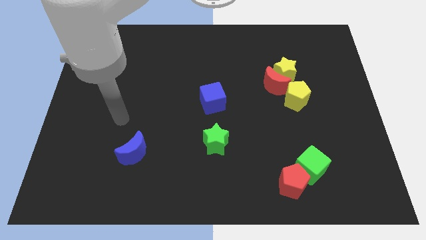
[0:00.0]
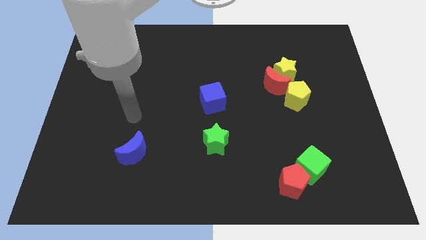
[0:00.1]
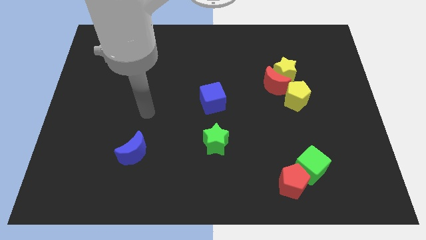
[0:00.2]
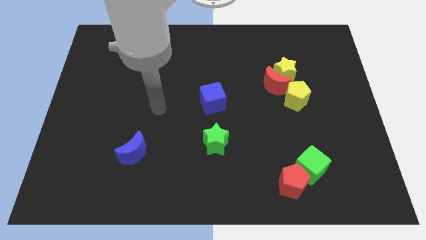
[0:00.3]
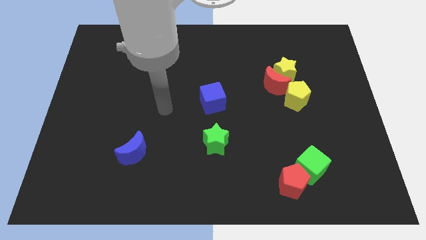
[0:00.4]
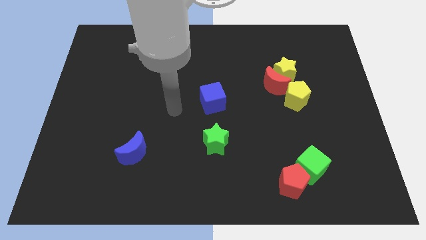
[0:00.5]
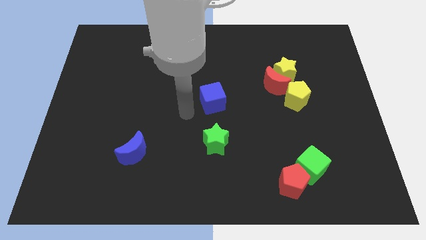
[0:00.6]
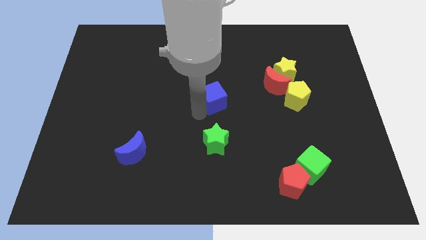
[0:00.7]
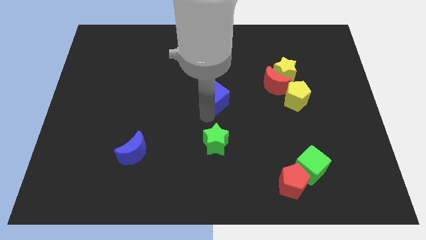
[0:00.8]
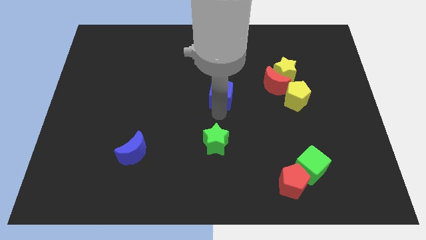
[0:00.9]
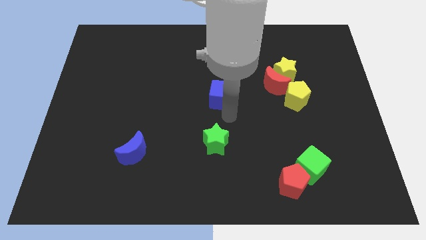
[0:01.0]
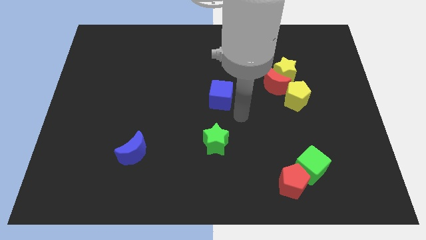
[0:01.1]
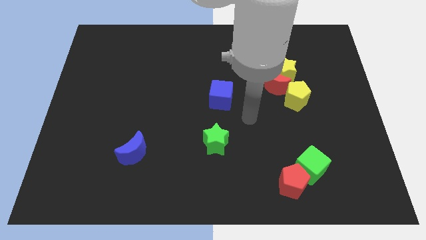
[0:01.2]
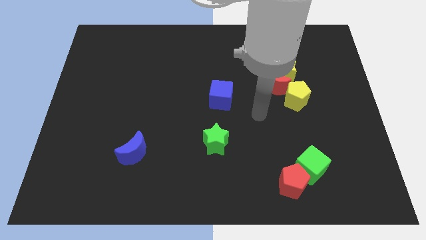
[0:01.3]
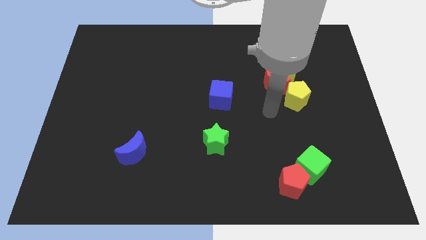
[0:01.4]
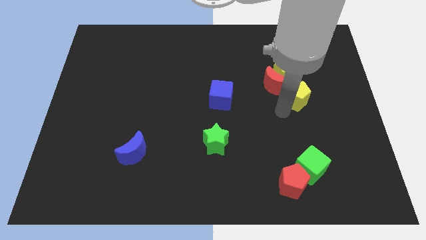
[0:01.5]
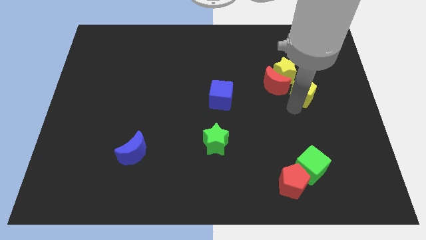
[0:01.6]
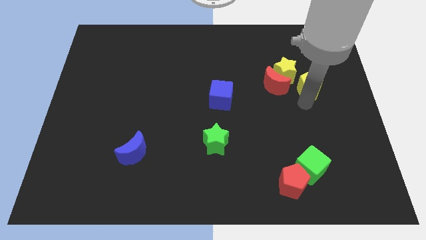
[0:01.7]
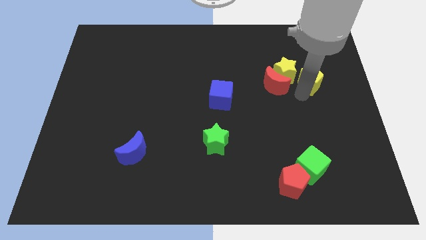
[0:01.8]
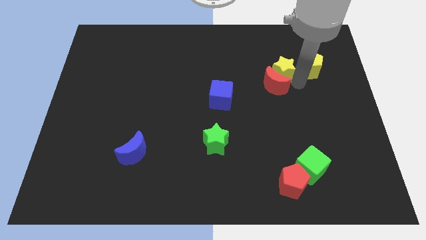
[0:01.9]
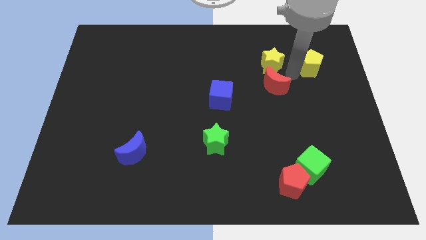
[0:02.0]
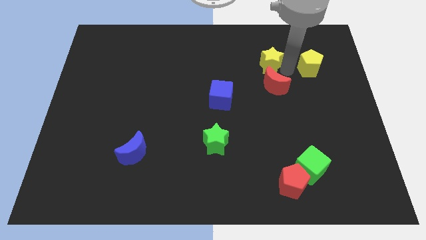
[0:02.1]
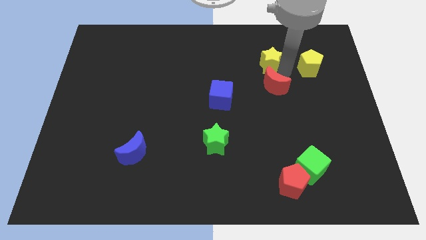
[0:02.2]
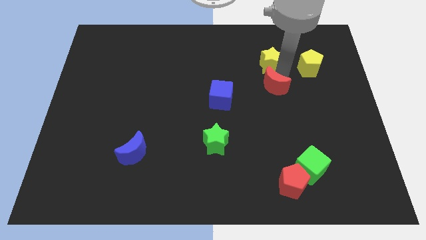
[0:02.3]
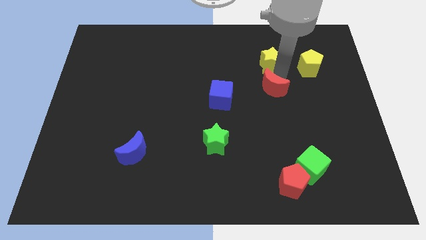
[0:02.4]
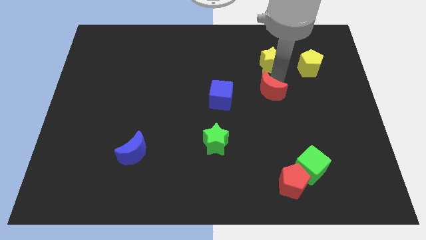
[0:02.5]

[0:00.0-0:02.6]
move the red moon away from the yellow star and yellow pentagon

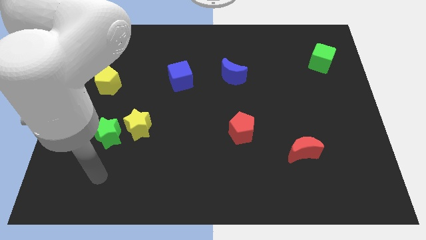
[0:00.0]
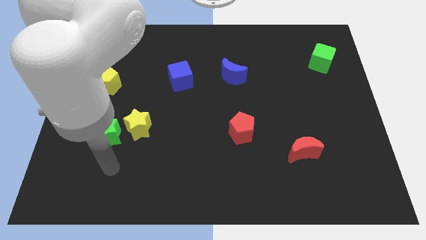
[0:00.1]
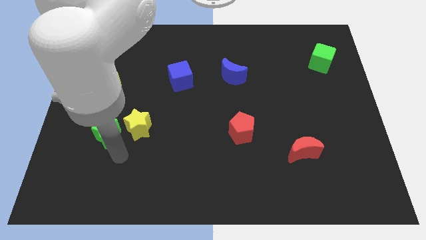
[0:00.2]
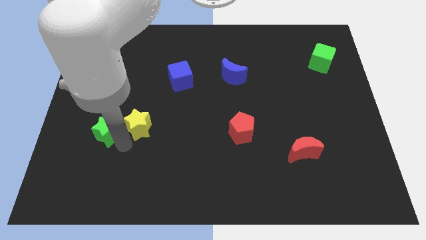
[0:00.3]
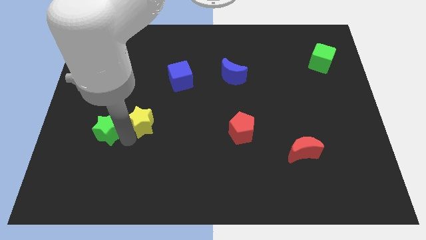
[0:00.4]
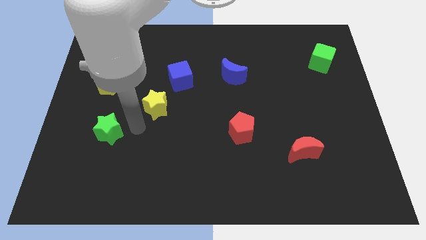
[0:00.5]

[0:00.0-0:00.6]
separate the green star from the yellow star

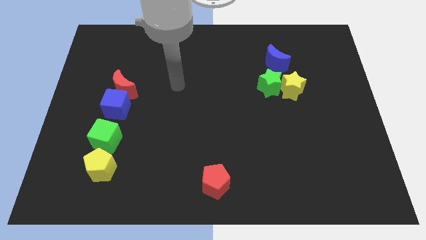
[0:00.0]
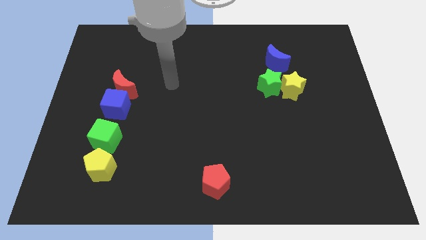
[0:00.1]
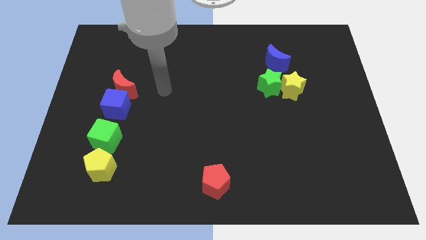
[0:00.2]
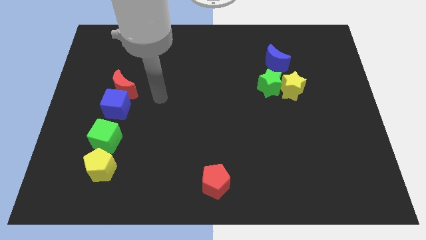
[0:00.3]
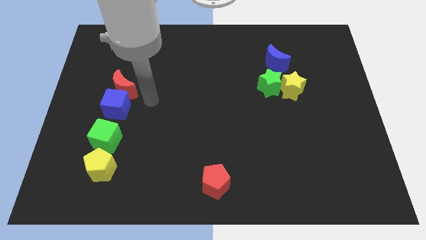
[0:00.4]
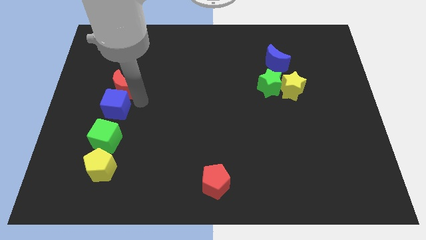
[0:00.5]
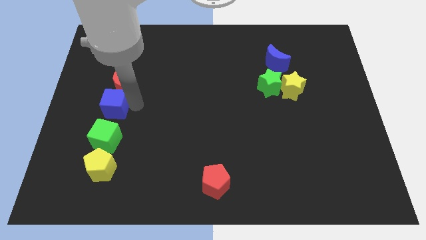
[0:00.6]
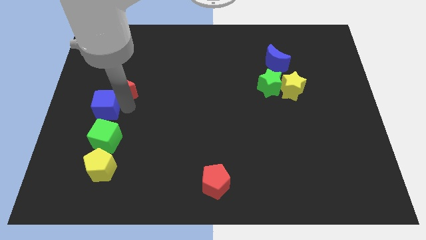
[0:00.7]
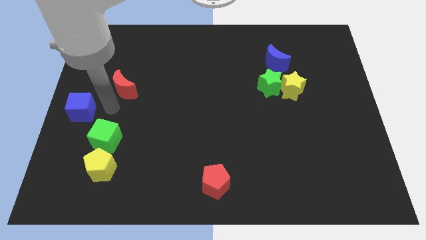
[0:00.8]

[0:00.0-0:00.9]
separate the red moon from the blue cube

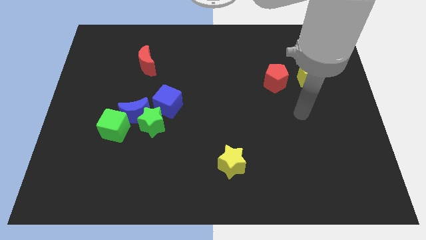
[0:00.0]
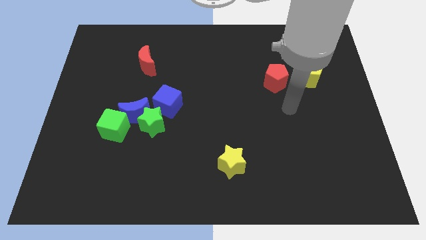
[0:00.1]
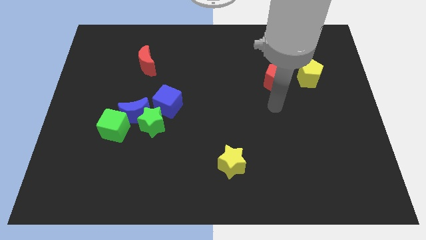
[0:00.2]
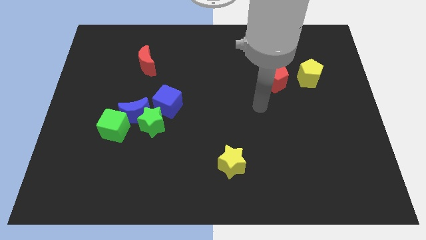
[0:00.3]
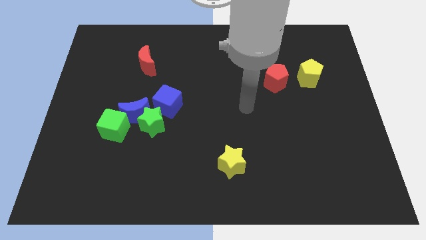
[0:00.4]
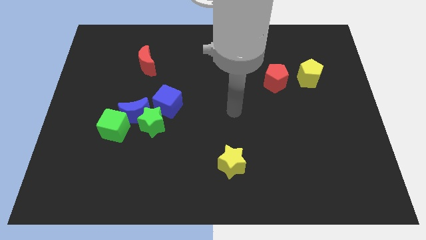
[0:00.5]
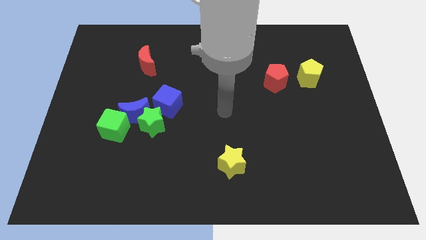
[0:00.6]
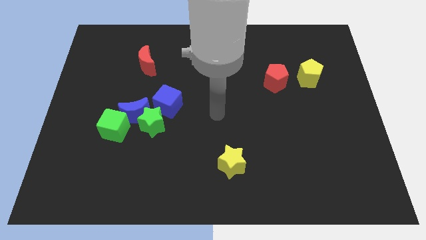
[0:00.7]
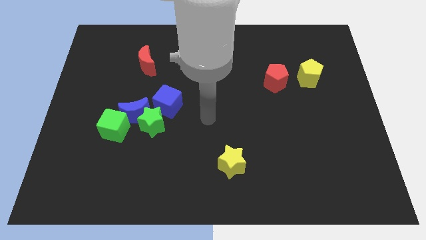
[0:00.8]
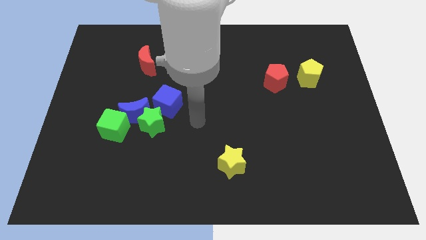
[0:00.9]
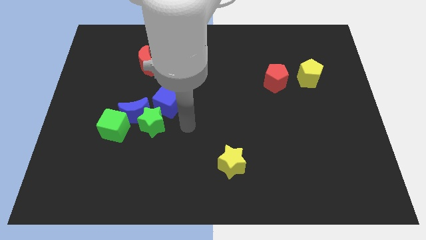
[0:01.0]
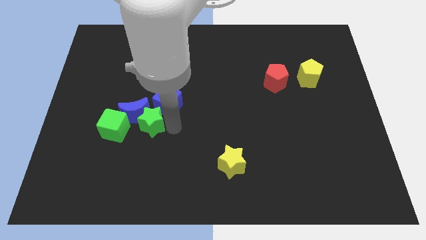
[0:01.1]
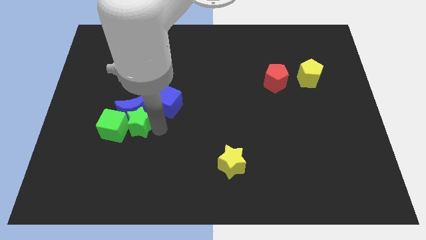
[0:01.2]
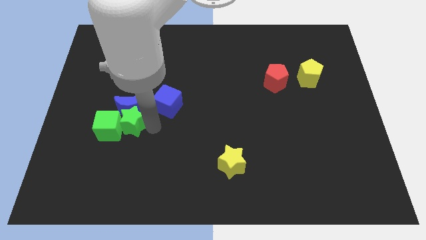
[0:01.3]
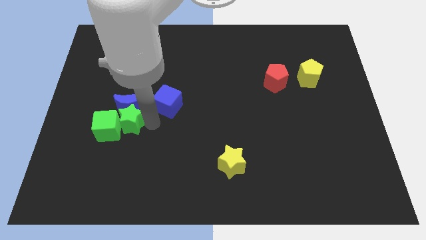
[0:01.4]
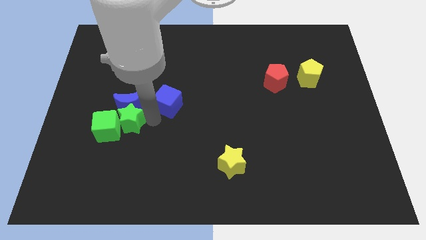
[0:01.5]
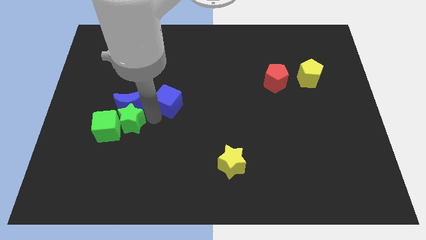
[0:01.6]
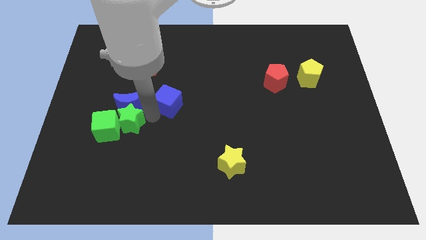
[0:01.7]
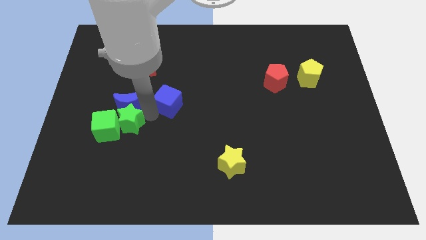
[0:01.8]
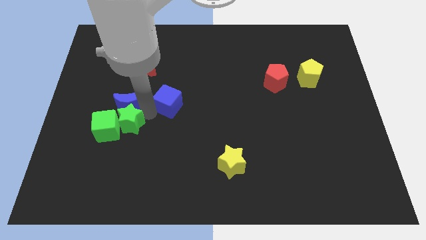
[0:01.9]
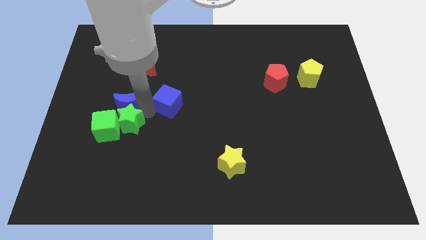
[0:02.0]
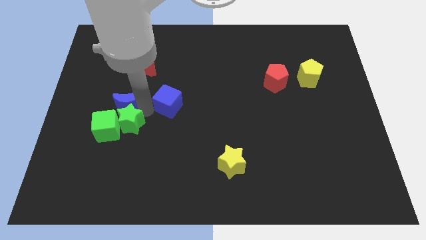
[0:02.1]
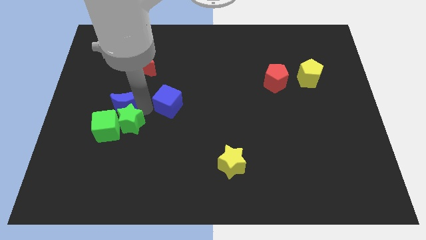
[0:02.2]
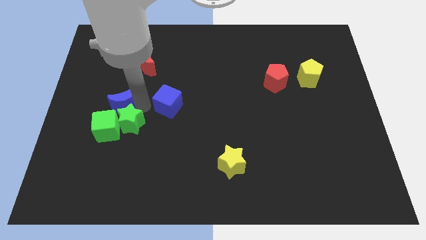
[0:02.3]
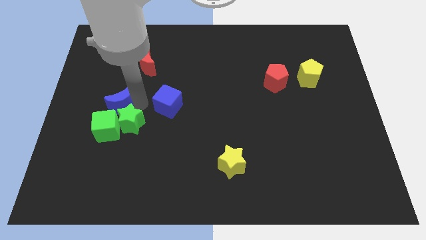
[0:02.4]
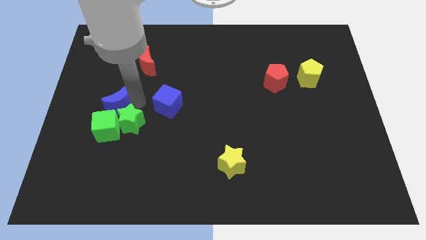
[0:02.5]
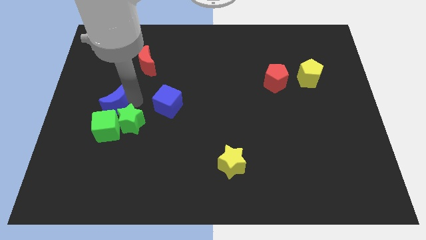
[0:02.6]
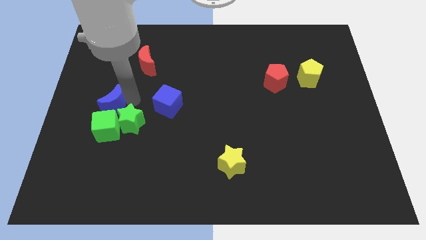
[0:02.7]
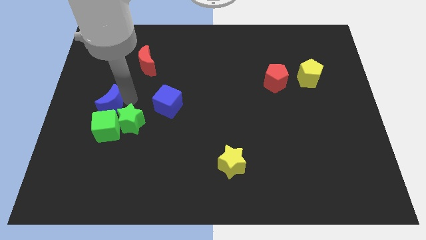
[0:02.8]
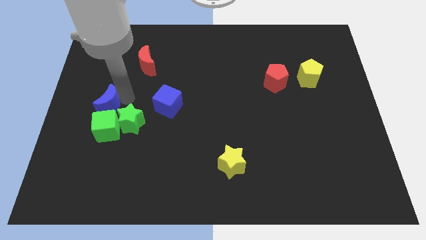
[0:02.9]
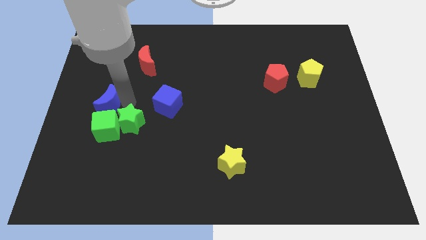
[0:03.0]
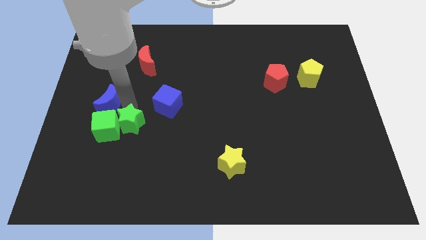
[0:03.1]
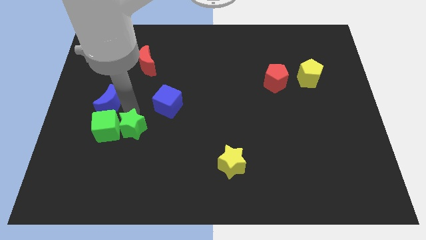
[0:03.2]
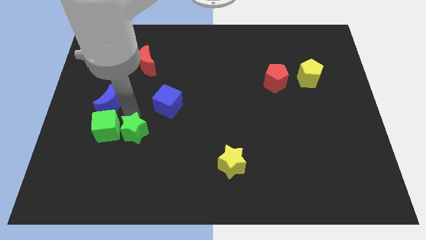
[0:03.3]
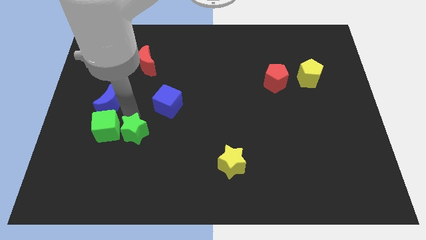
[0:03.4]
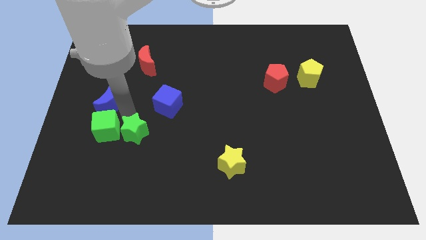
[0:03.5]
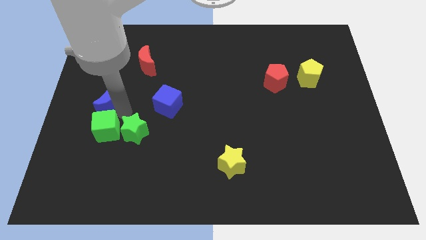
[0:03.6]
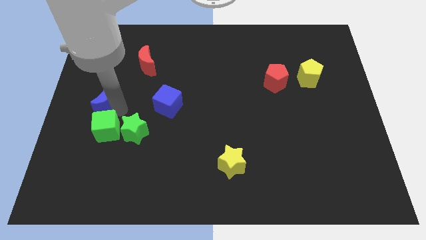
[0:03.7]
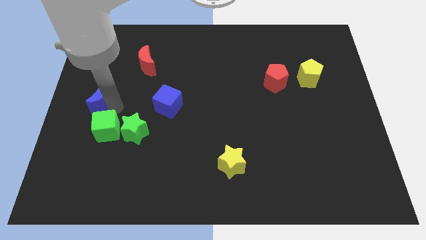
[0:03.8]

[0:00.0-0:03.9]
separate the blue moon from the clump

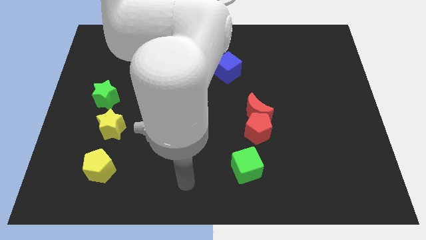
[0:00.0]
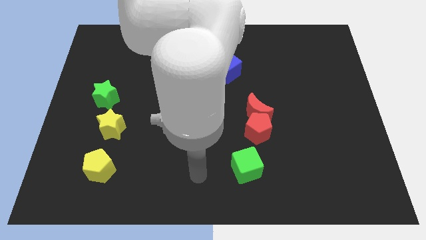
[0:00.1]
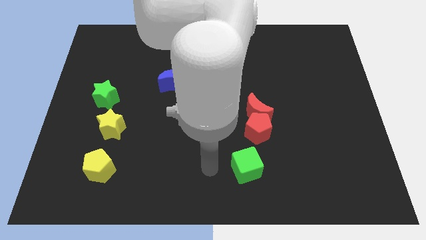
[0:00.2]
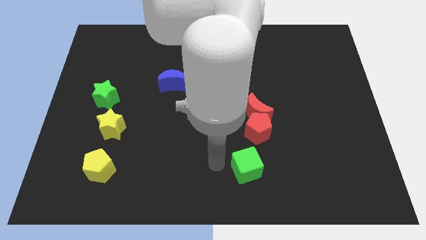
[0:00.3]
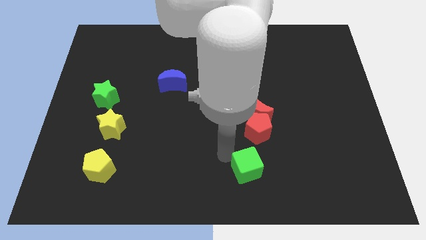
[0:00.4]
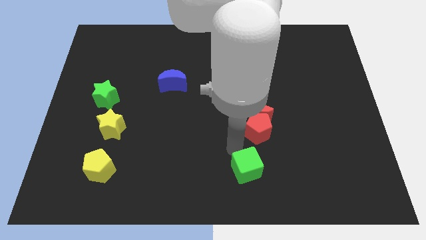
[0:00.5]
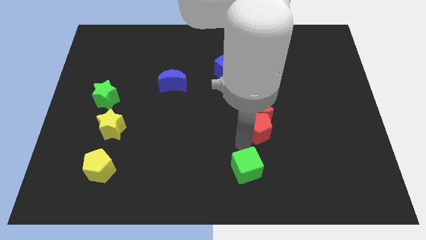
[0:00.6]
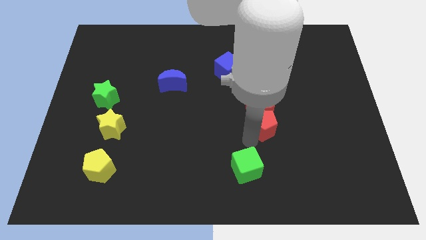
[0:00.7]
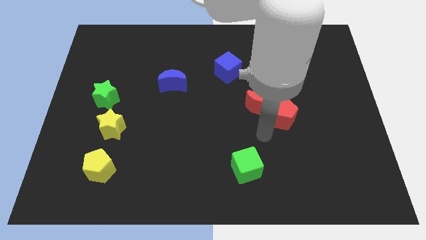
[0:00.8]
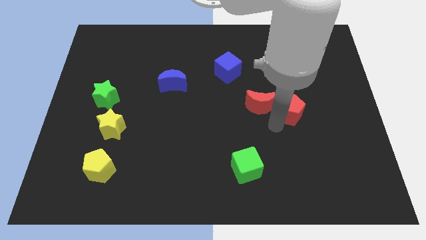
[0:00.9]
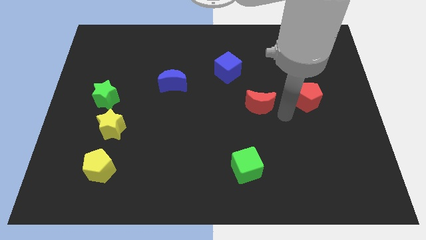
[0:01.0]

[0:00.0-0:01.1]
move the red moon away from the red pentagon

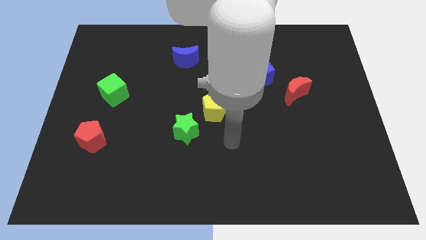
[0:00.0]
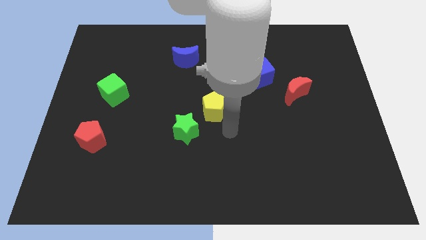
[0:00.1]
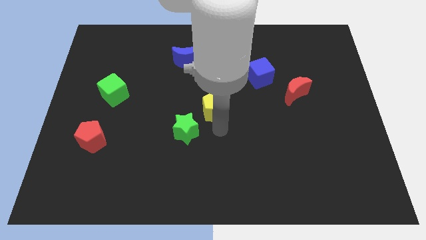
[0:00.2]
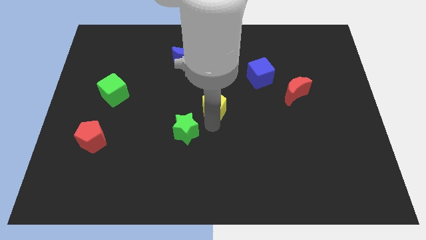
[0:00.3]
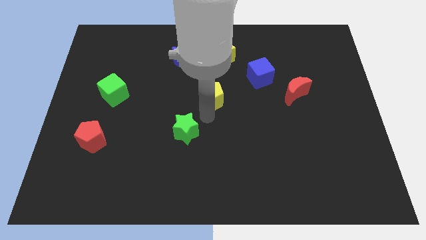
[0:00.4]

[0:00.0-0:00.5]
separate the green star from the yellow pentagon
